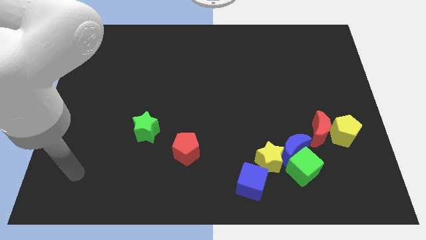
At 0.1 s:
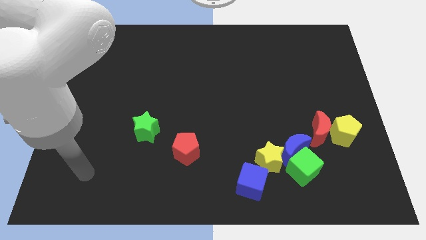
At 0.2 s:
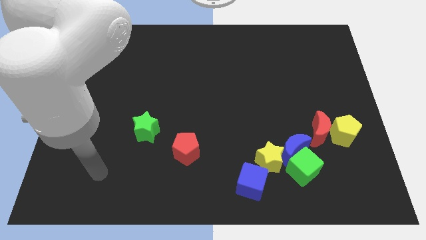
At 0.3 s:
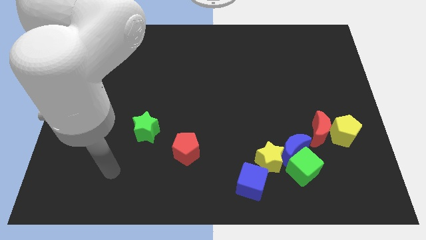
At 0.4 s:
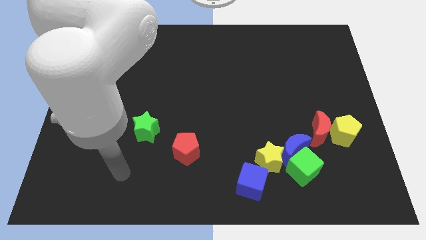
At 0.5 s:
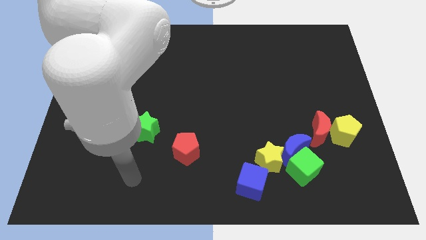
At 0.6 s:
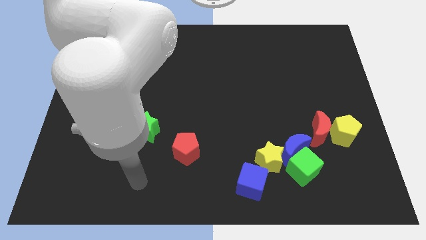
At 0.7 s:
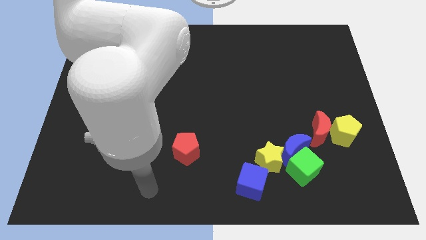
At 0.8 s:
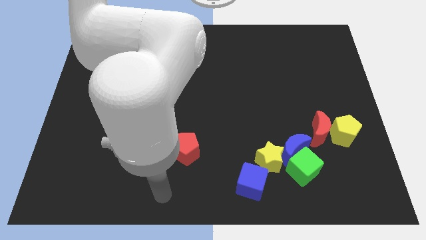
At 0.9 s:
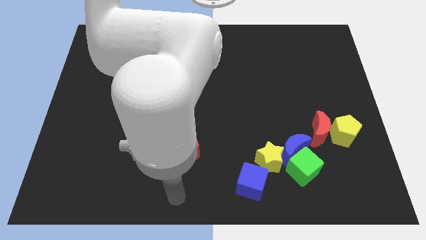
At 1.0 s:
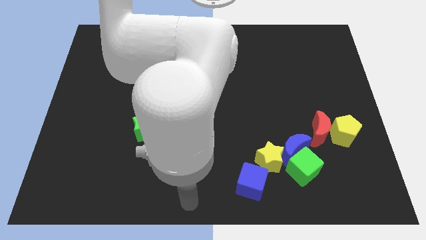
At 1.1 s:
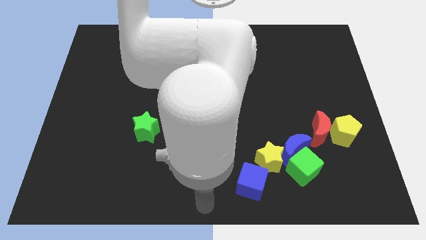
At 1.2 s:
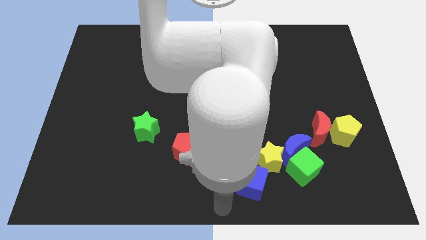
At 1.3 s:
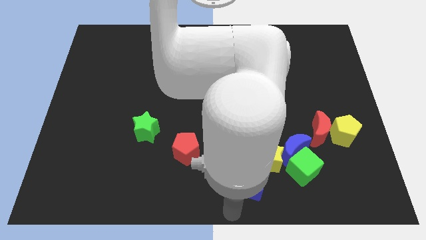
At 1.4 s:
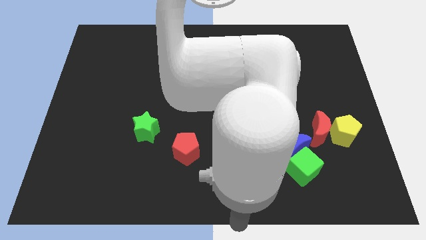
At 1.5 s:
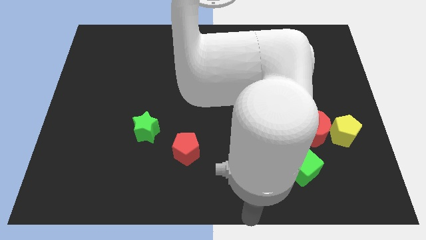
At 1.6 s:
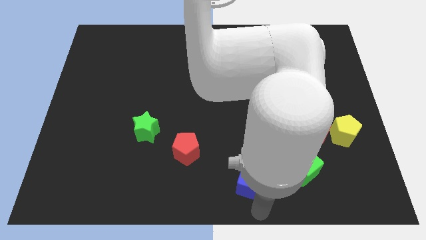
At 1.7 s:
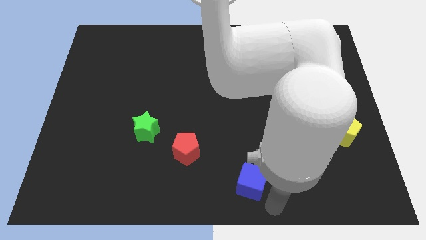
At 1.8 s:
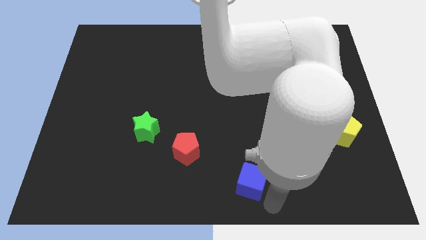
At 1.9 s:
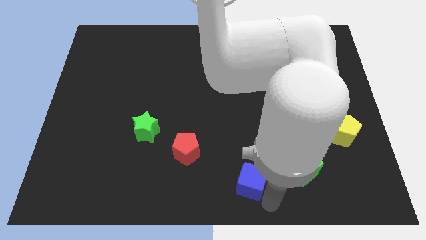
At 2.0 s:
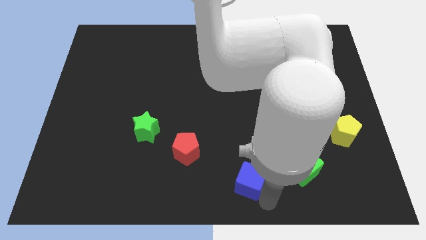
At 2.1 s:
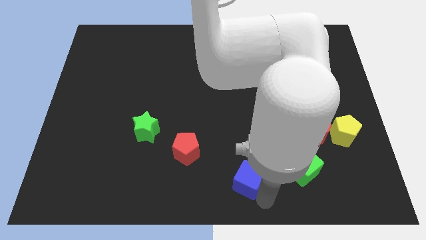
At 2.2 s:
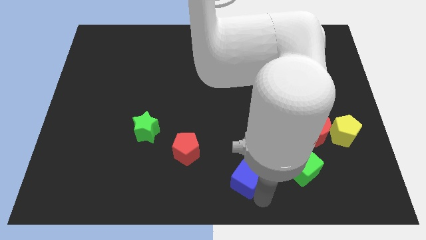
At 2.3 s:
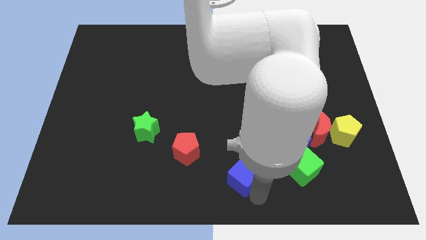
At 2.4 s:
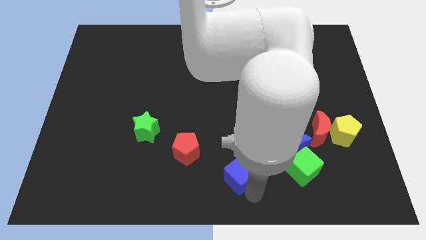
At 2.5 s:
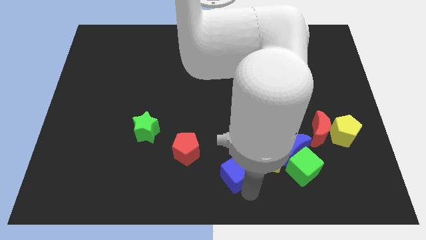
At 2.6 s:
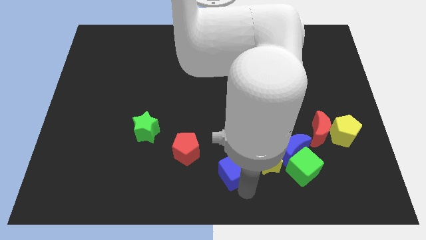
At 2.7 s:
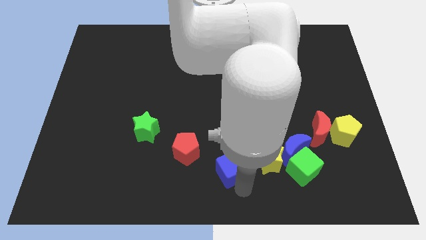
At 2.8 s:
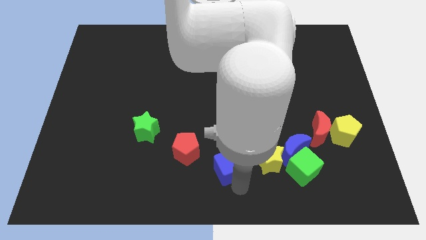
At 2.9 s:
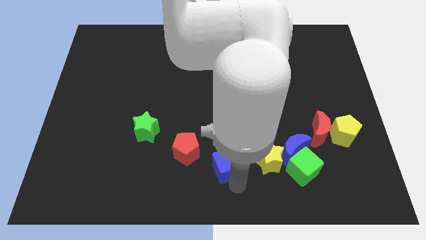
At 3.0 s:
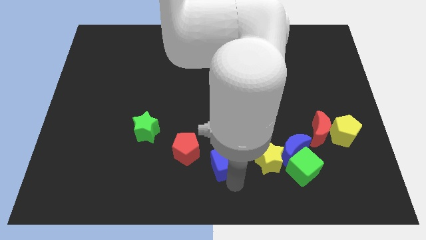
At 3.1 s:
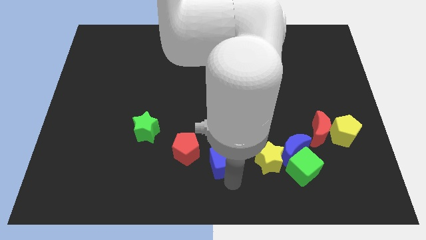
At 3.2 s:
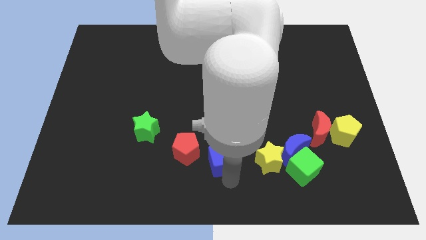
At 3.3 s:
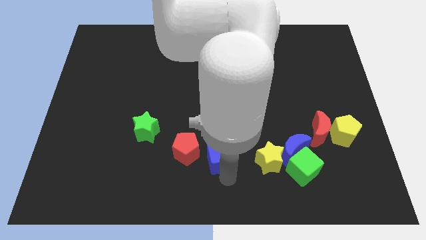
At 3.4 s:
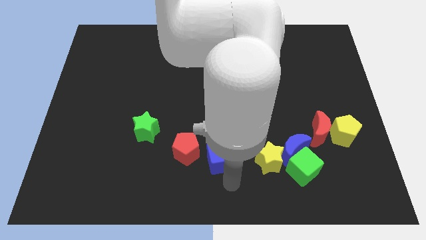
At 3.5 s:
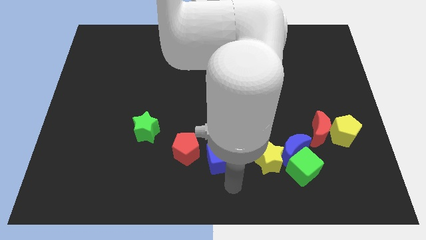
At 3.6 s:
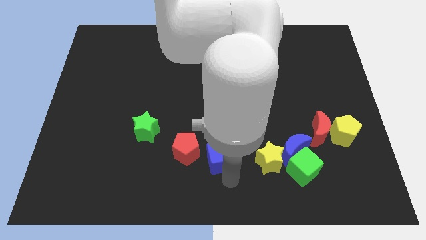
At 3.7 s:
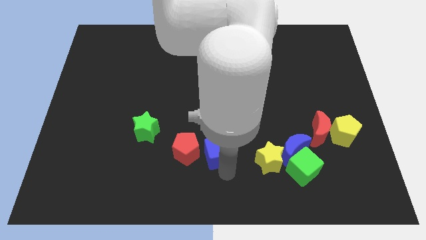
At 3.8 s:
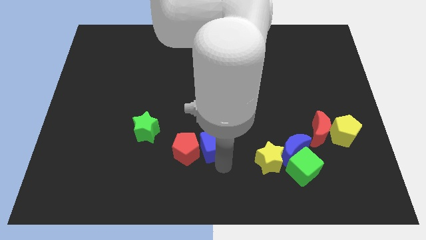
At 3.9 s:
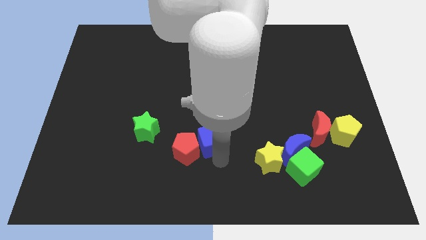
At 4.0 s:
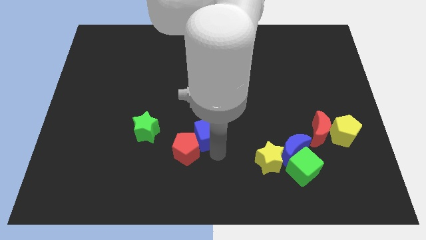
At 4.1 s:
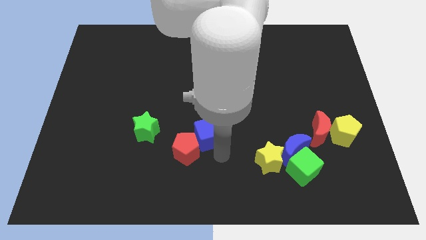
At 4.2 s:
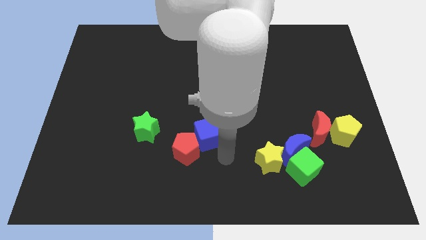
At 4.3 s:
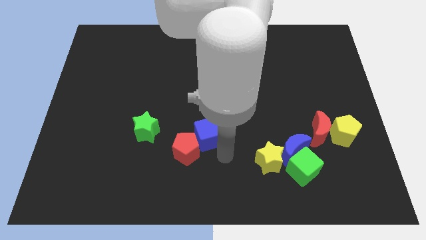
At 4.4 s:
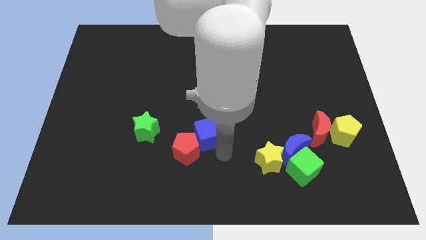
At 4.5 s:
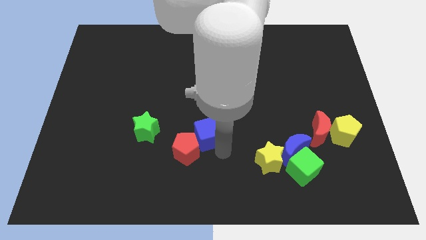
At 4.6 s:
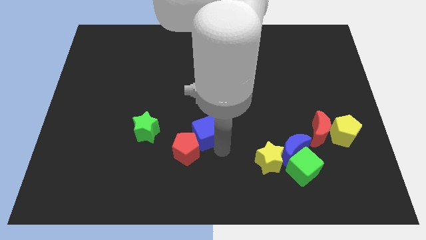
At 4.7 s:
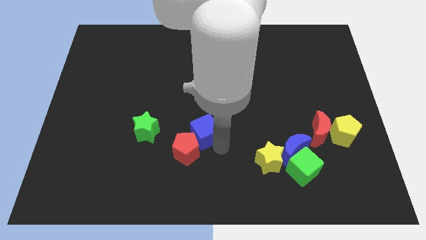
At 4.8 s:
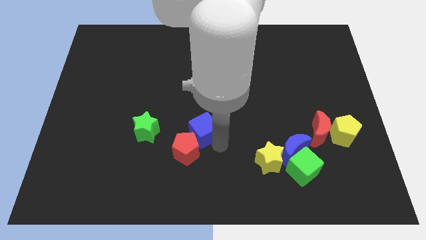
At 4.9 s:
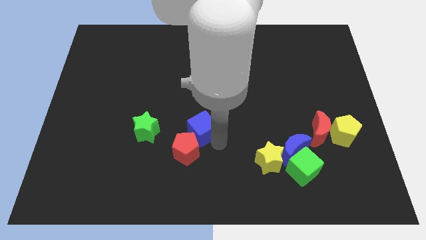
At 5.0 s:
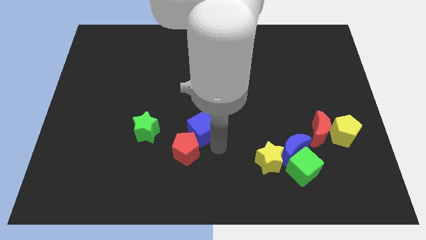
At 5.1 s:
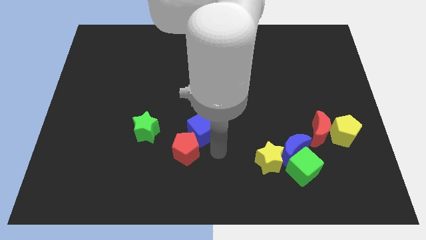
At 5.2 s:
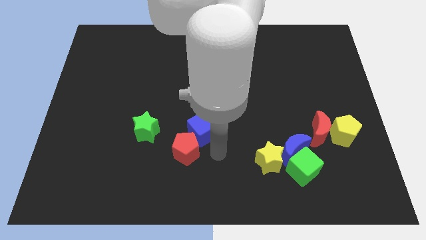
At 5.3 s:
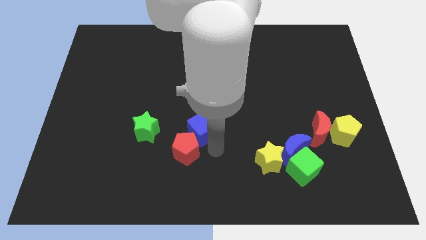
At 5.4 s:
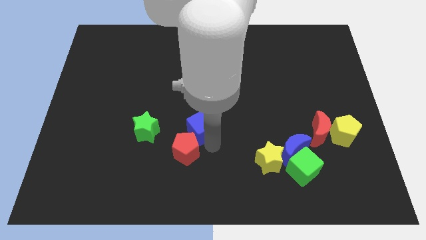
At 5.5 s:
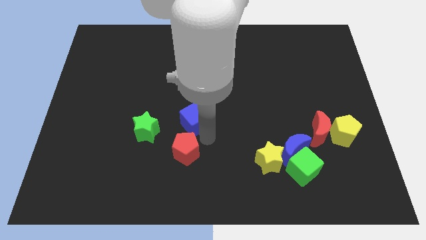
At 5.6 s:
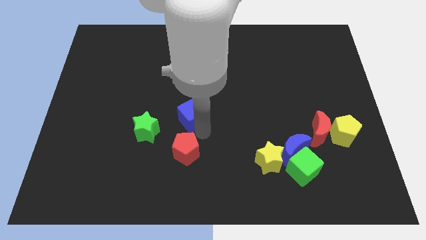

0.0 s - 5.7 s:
move the blue cube upwards and then to the left

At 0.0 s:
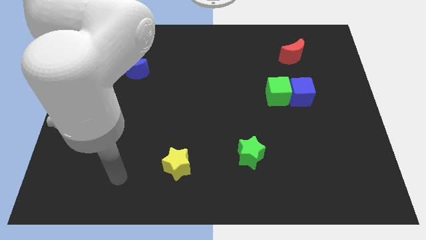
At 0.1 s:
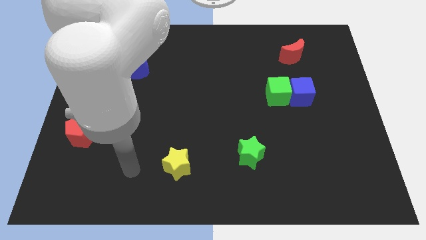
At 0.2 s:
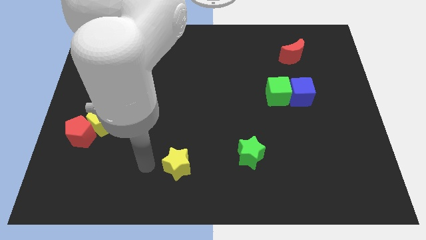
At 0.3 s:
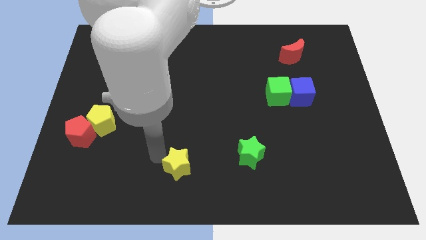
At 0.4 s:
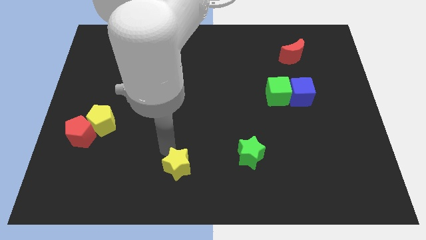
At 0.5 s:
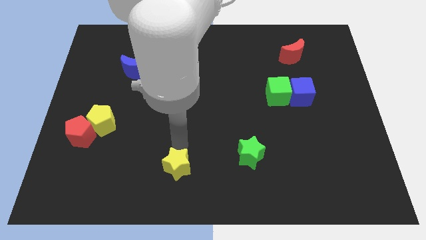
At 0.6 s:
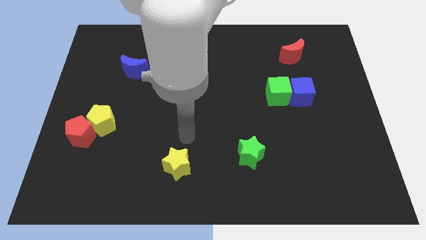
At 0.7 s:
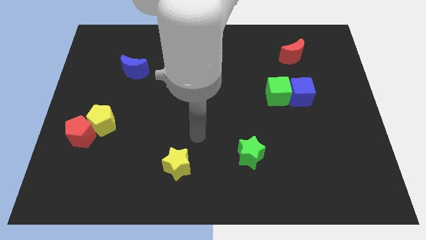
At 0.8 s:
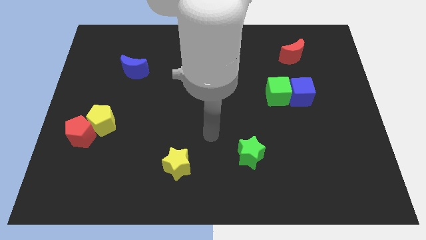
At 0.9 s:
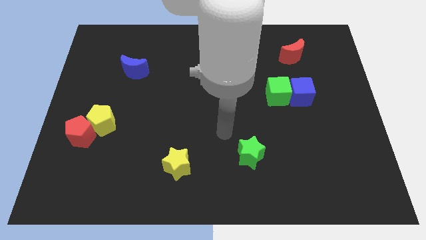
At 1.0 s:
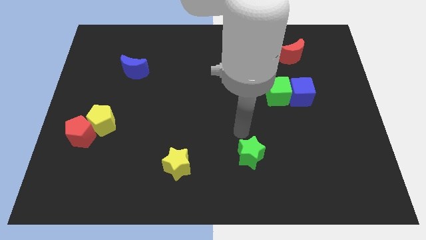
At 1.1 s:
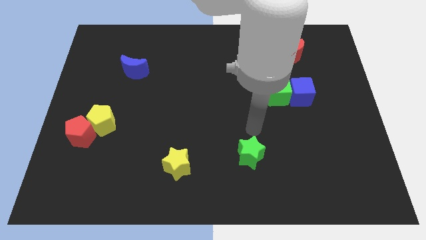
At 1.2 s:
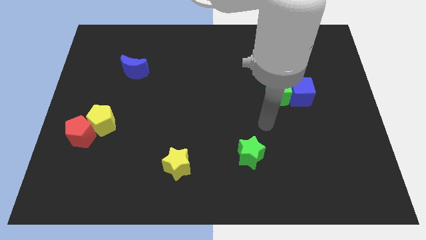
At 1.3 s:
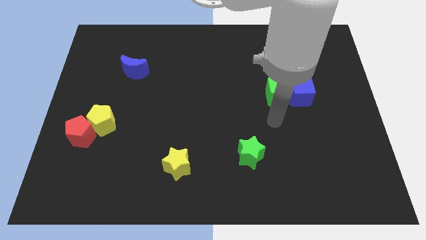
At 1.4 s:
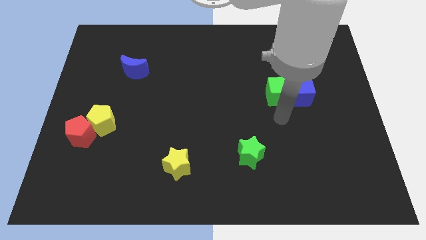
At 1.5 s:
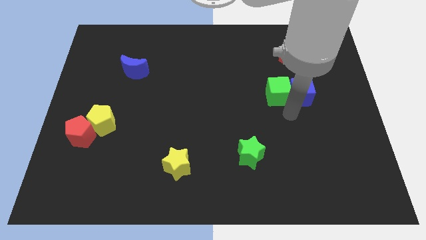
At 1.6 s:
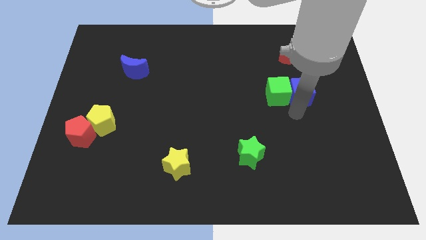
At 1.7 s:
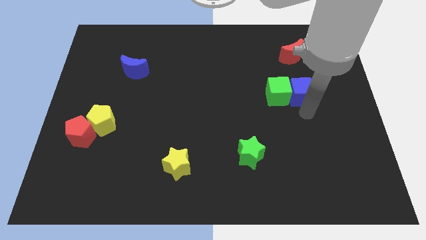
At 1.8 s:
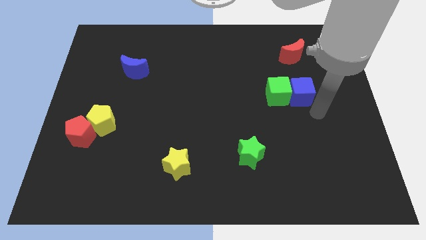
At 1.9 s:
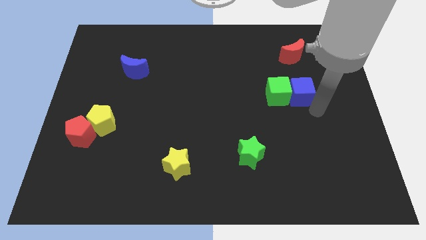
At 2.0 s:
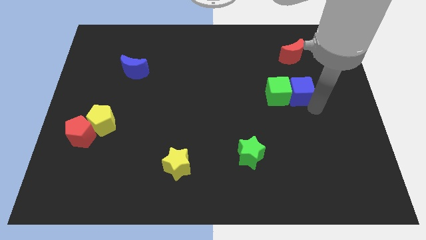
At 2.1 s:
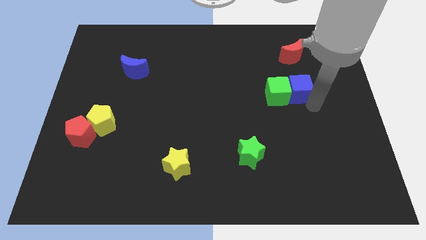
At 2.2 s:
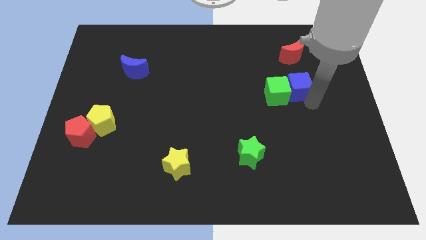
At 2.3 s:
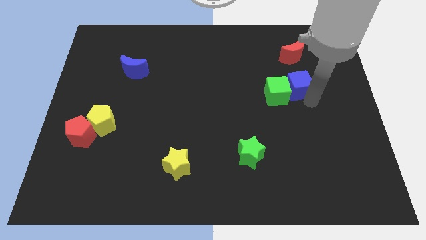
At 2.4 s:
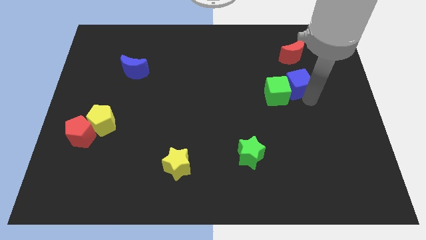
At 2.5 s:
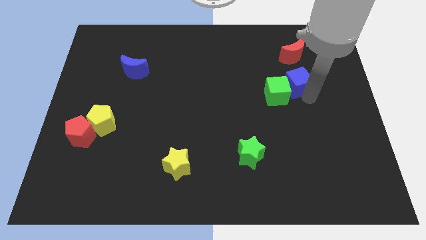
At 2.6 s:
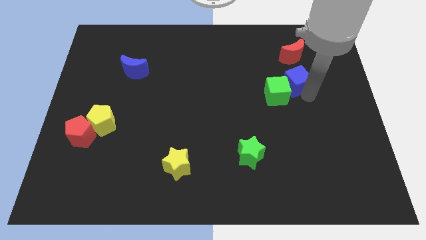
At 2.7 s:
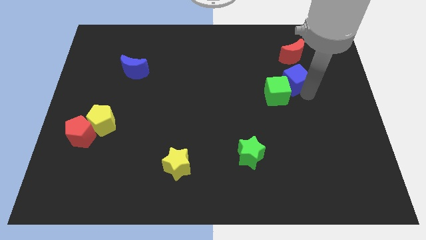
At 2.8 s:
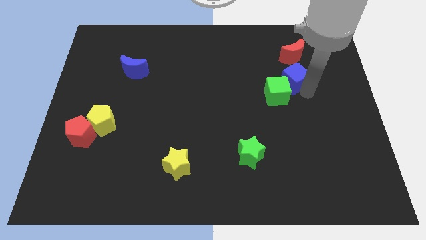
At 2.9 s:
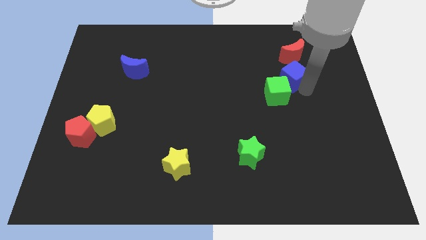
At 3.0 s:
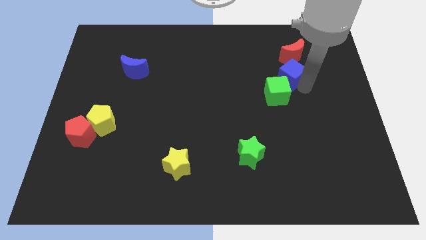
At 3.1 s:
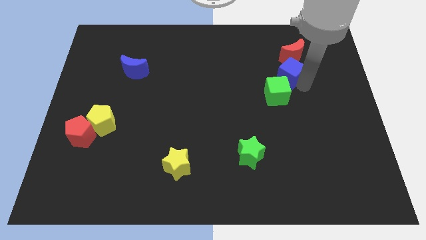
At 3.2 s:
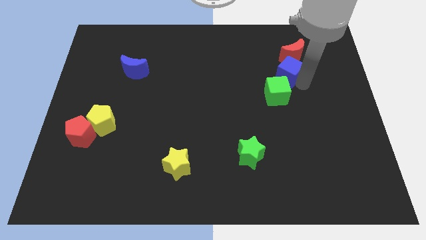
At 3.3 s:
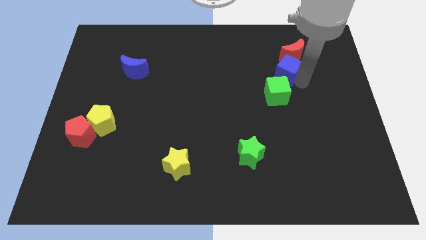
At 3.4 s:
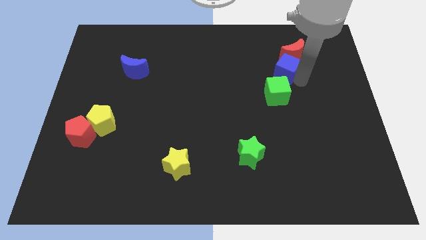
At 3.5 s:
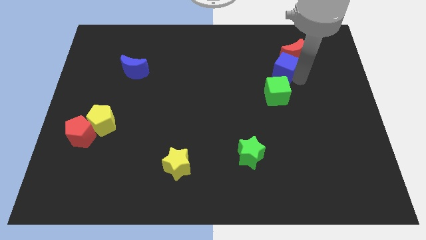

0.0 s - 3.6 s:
push the blue cube a bit diagonally up and to the left
